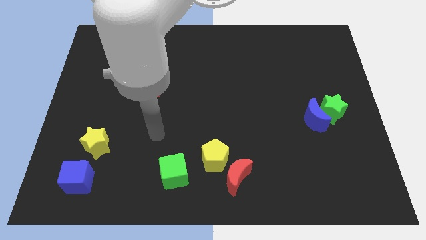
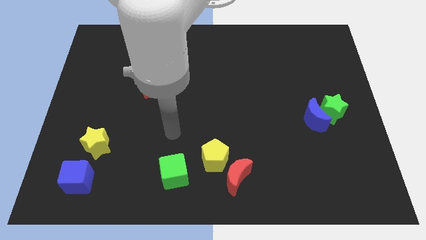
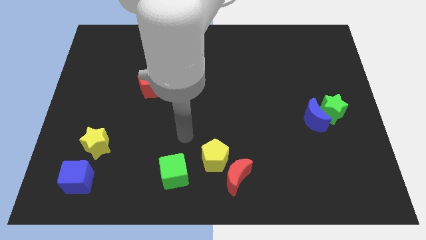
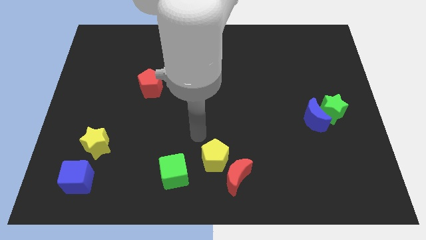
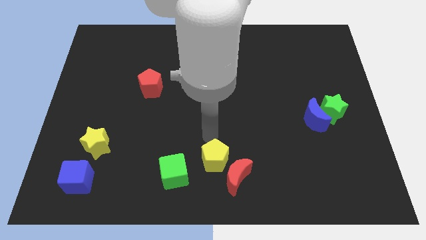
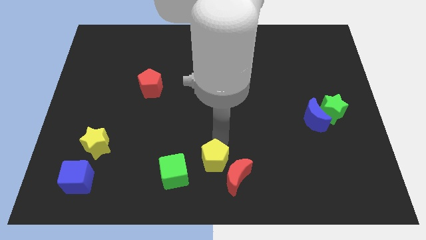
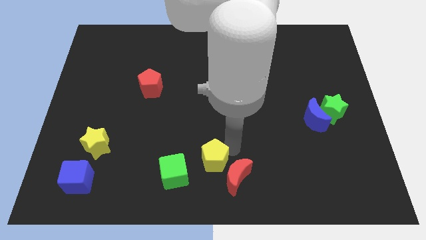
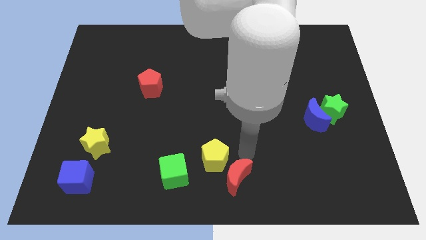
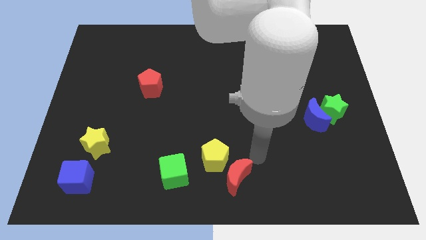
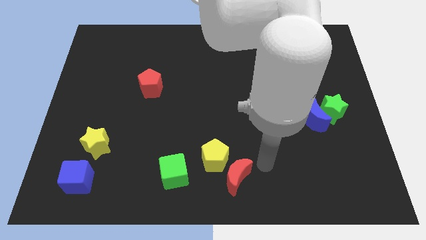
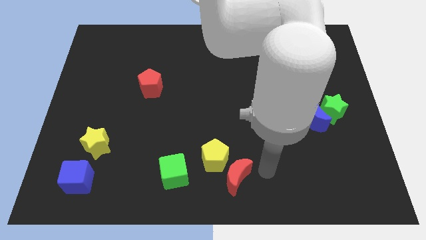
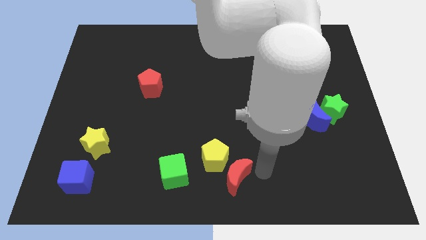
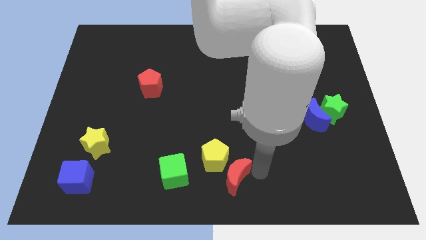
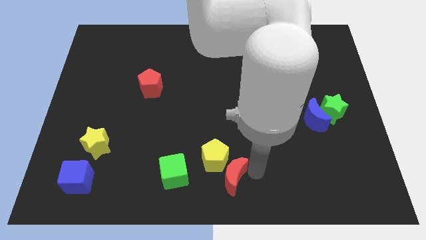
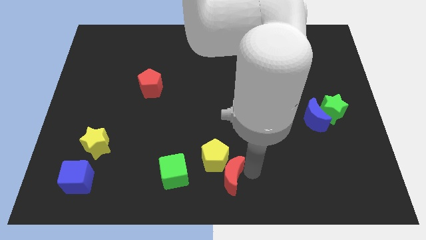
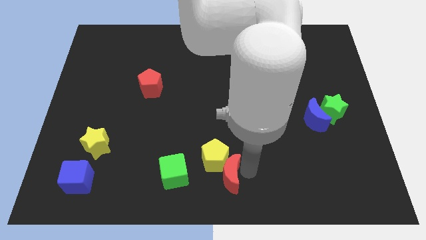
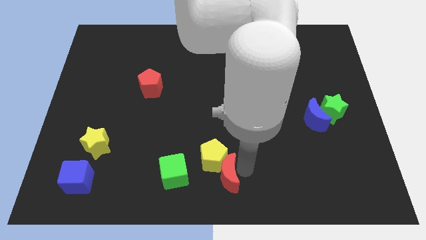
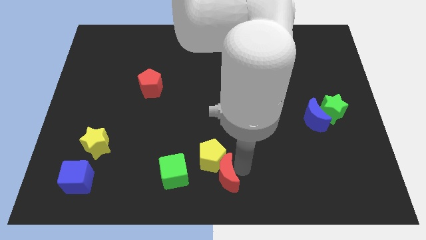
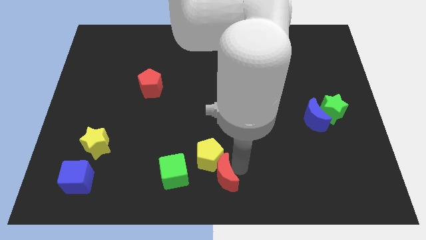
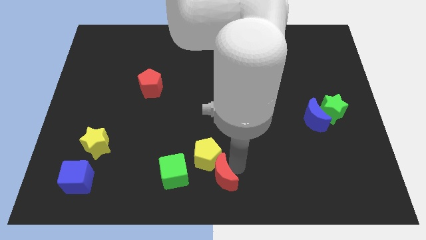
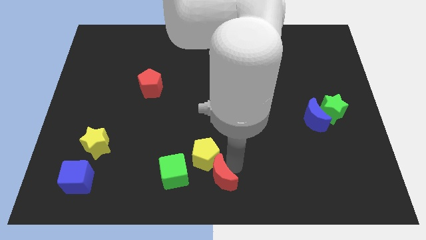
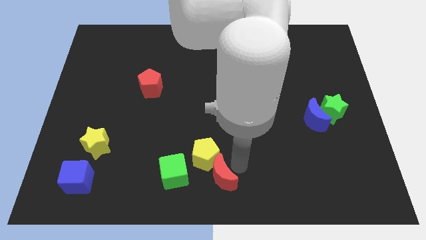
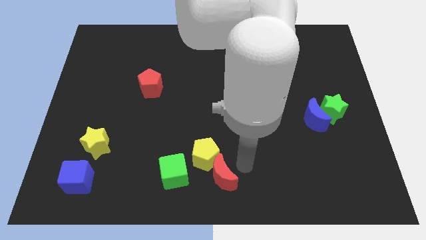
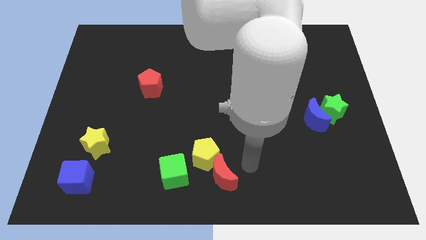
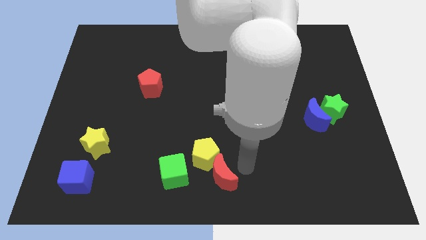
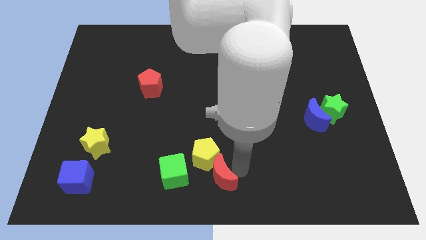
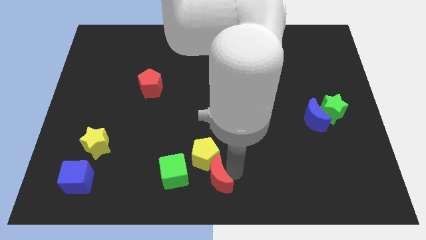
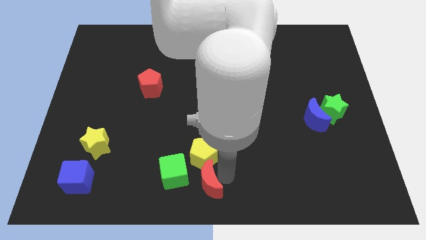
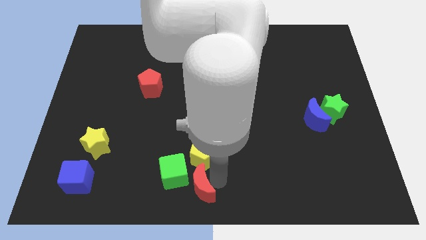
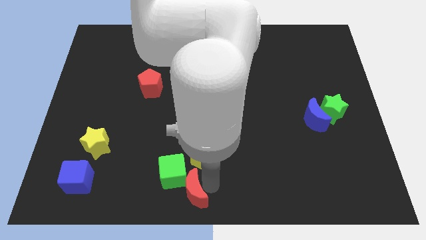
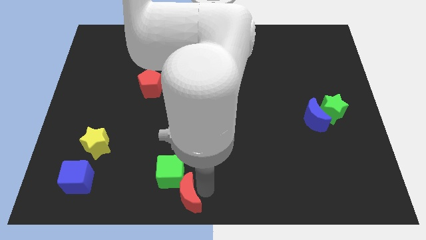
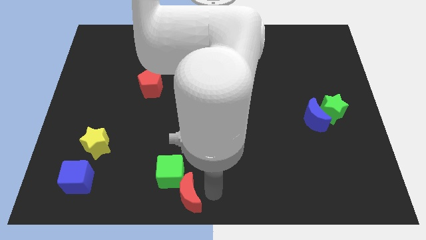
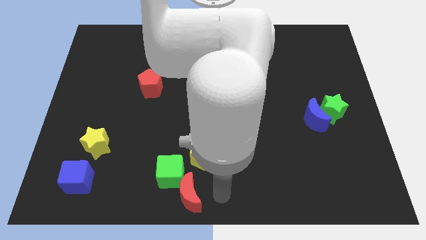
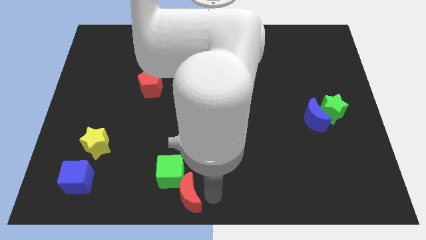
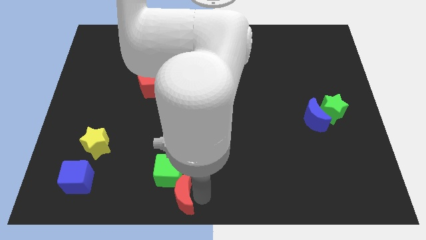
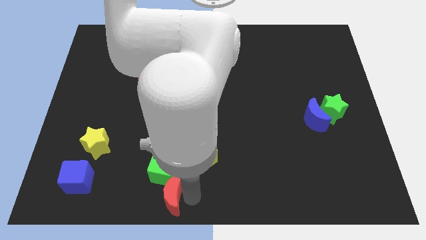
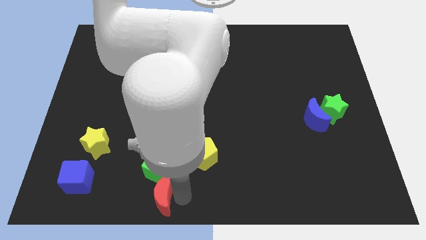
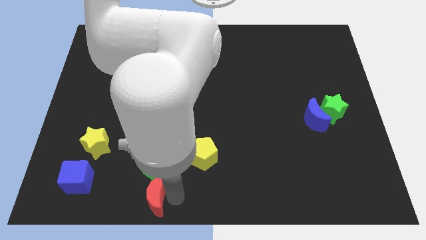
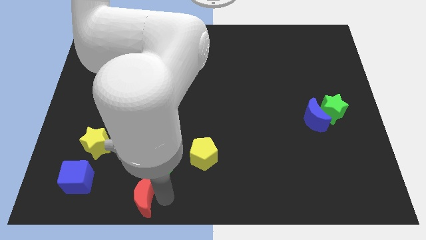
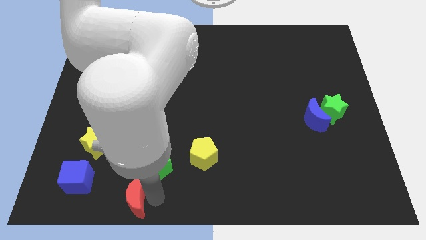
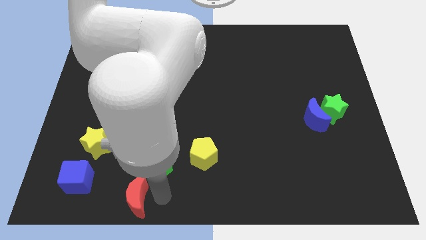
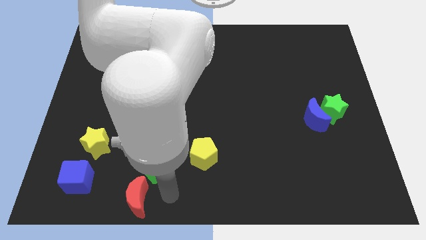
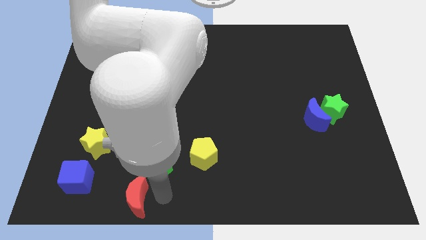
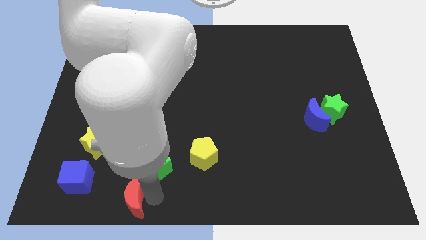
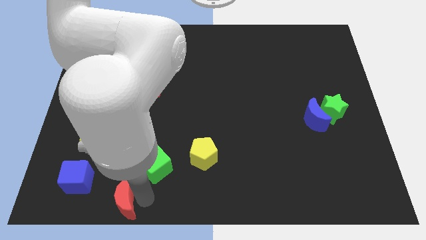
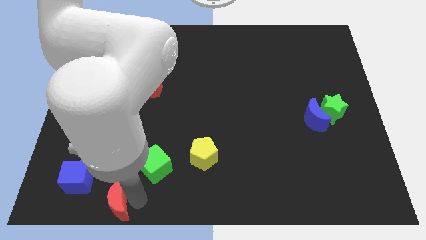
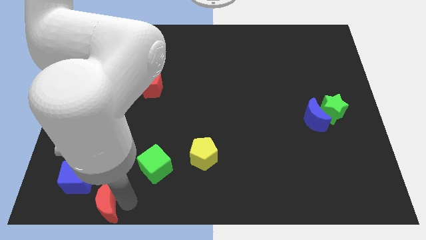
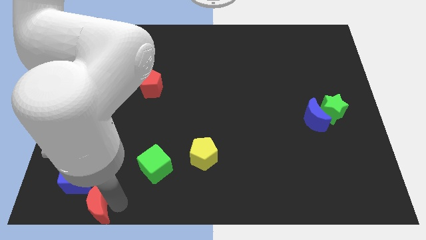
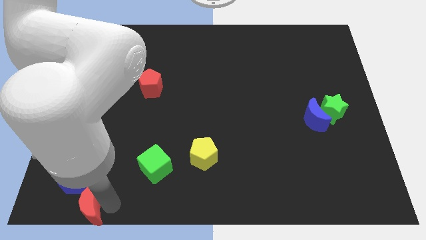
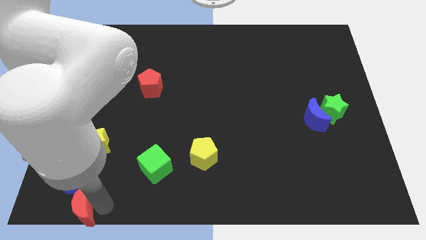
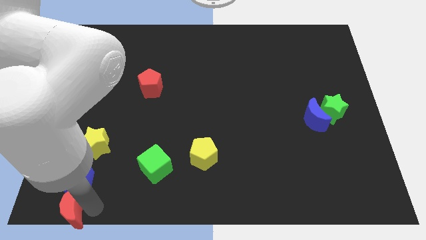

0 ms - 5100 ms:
slide the red moon to the bottom left of the board

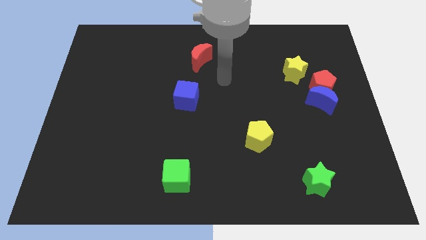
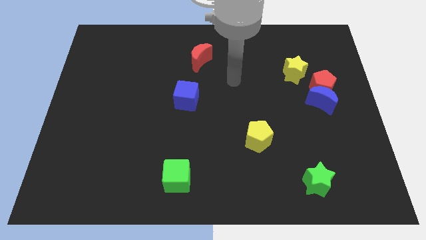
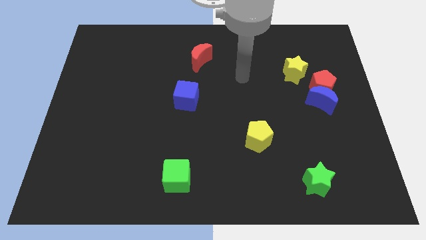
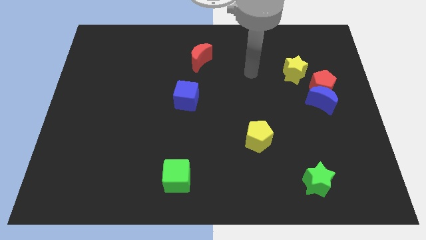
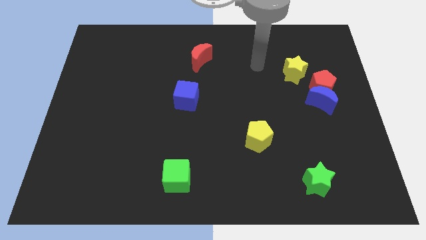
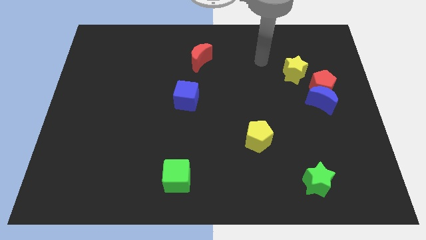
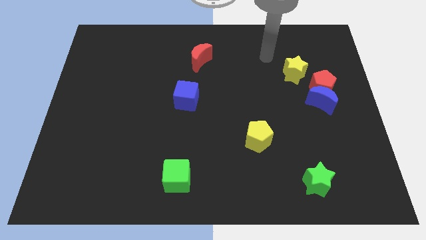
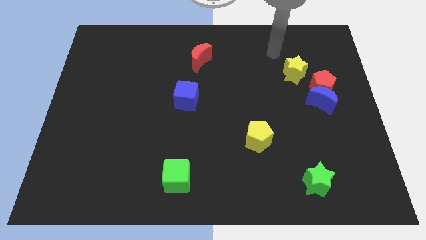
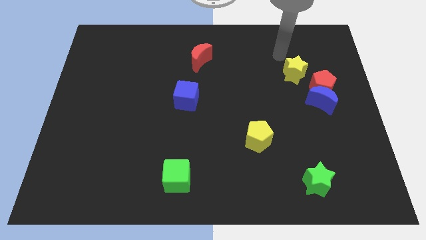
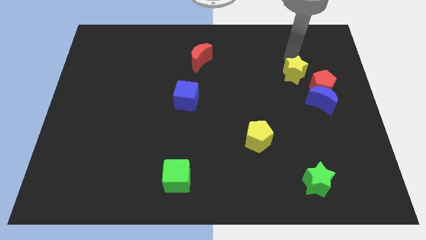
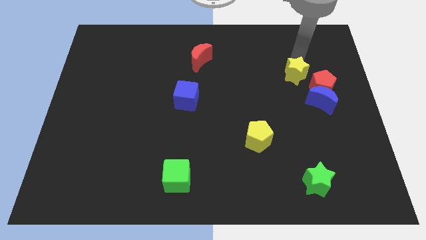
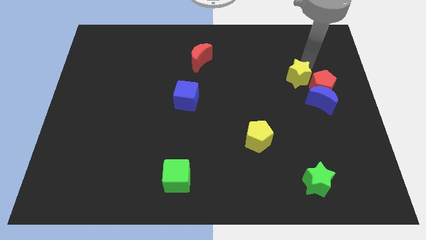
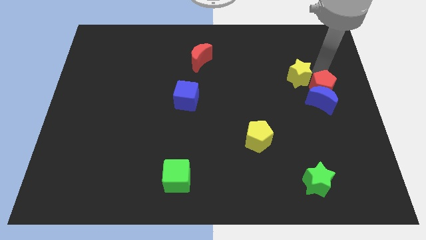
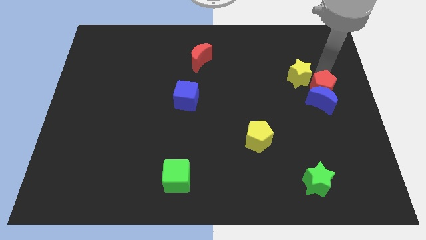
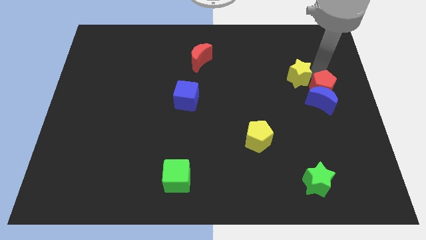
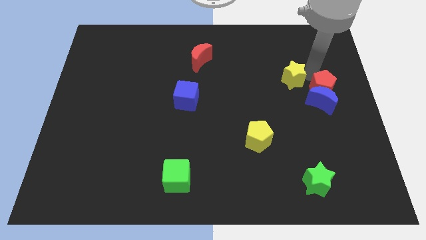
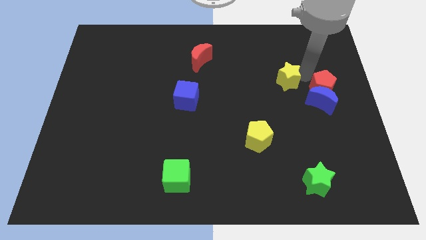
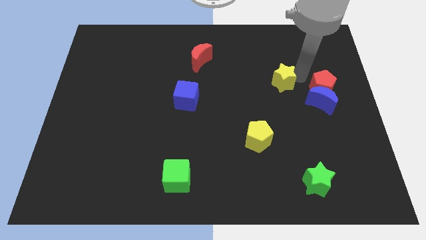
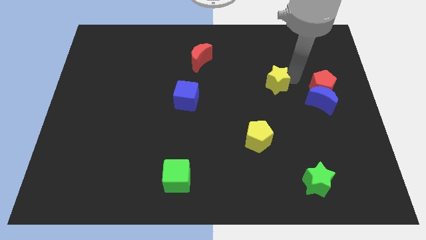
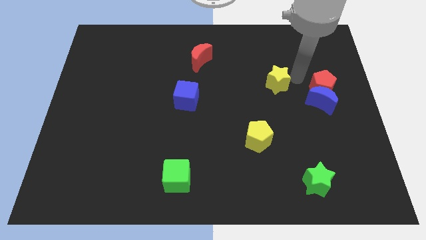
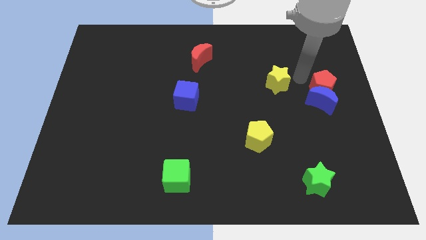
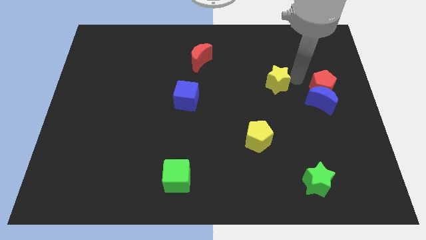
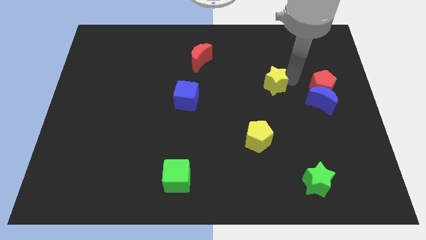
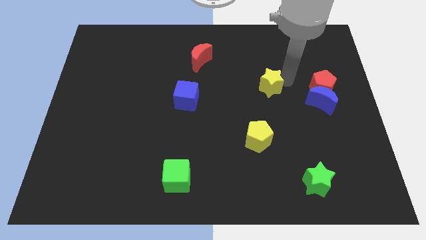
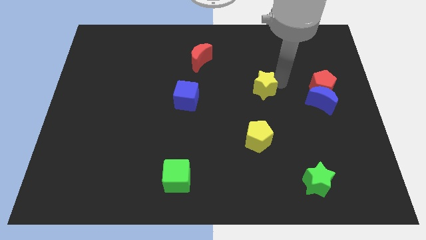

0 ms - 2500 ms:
slide the yellow star to the center of the board
